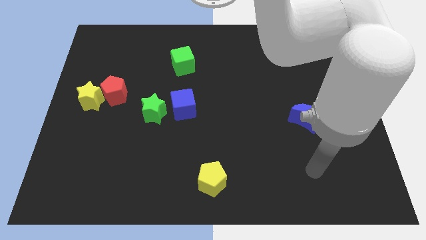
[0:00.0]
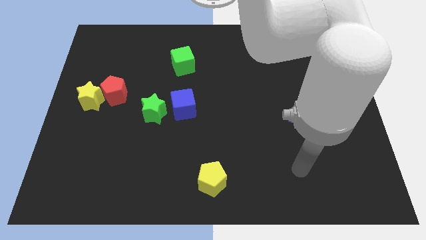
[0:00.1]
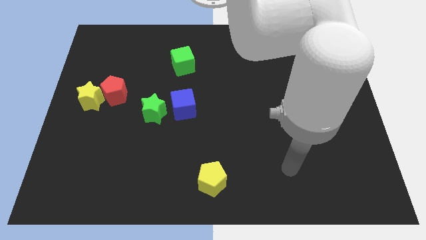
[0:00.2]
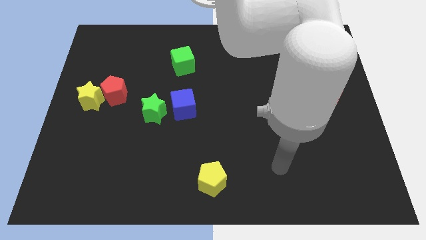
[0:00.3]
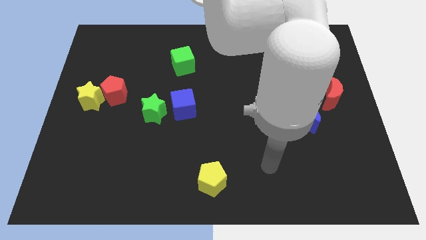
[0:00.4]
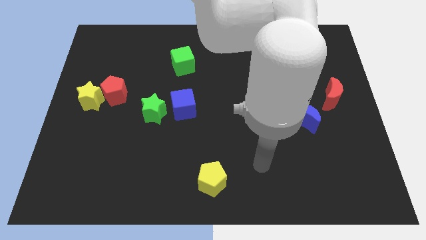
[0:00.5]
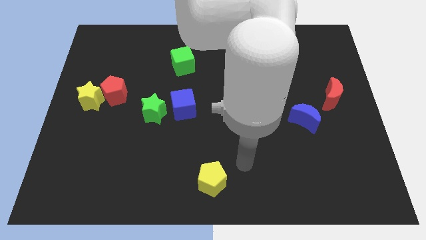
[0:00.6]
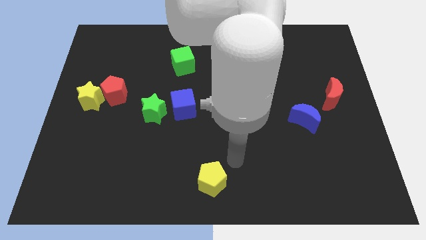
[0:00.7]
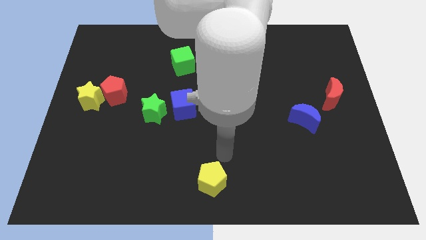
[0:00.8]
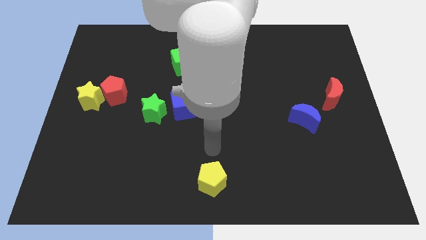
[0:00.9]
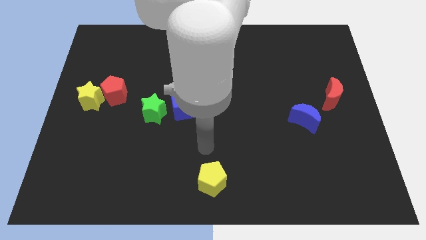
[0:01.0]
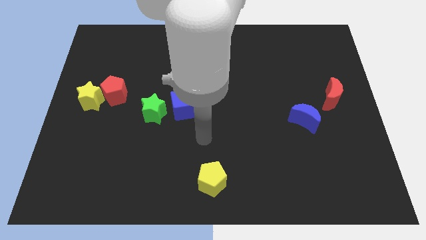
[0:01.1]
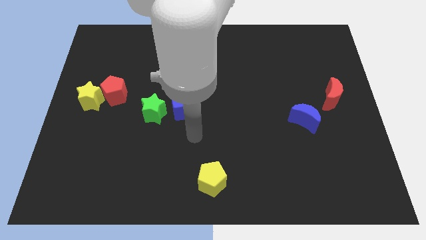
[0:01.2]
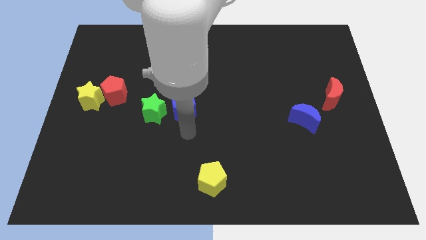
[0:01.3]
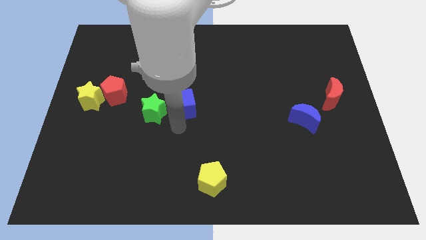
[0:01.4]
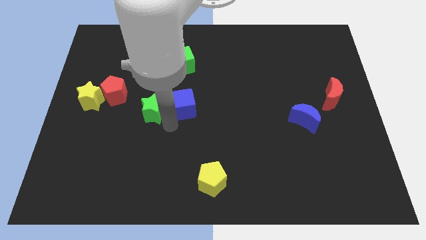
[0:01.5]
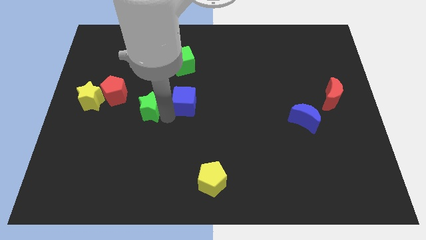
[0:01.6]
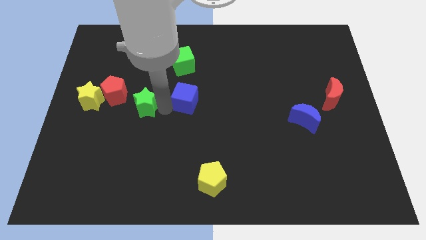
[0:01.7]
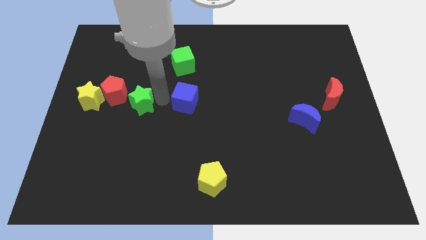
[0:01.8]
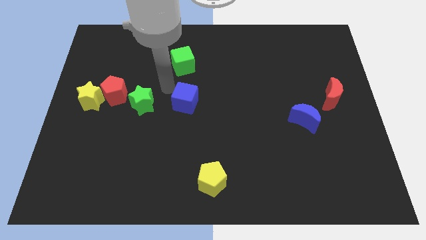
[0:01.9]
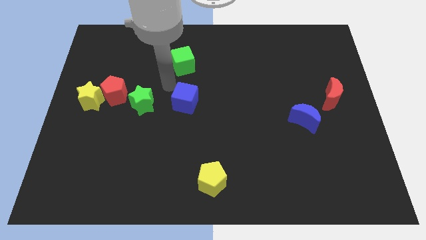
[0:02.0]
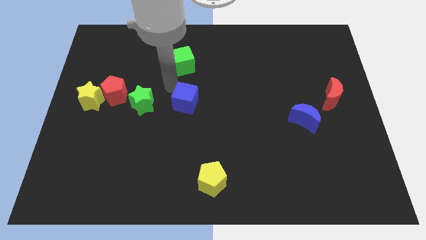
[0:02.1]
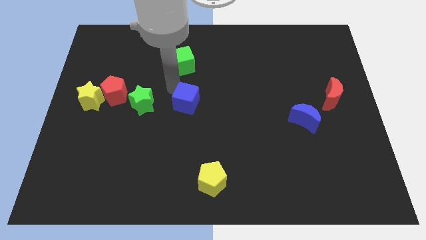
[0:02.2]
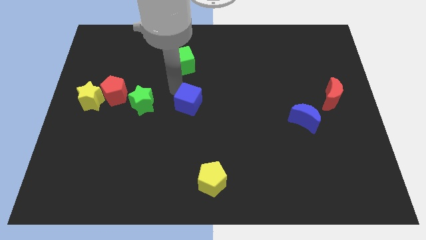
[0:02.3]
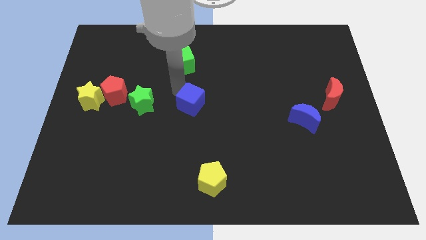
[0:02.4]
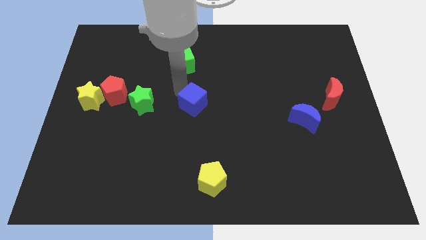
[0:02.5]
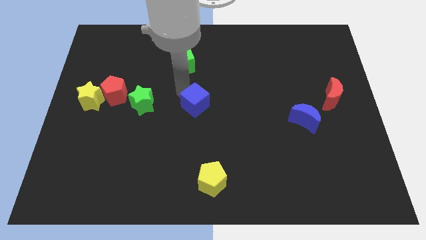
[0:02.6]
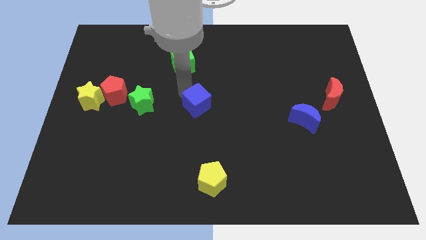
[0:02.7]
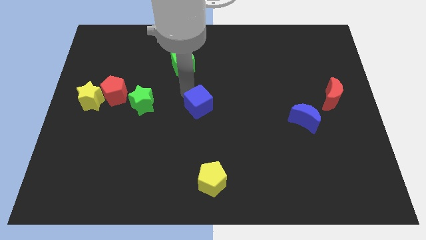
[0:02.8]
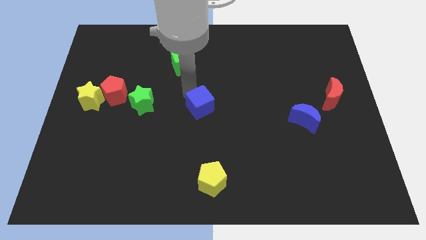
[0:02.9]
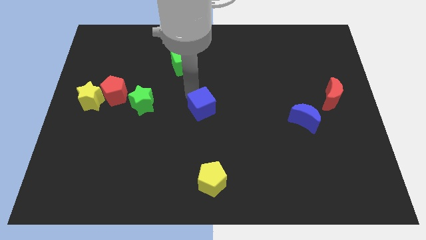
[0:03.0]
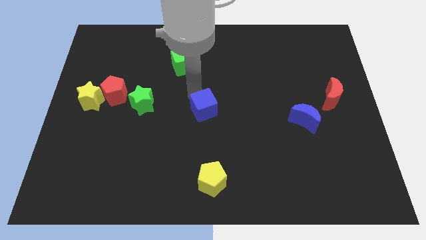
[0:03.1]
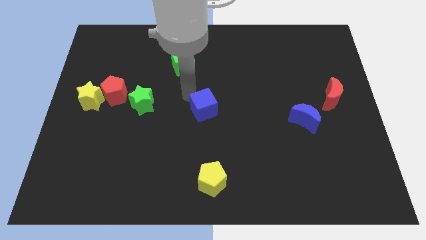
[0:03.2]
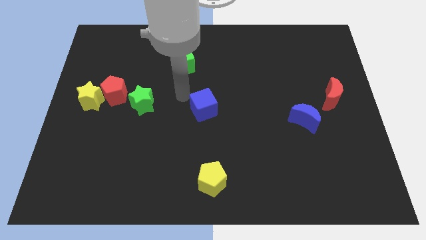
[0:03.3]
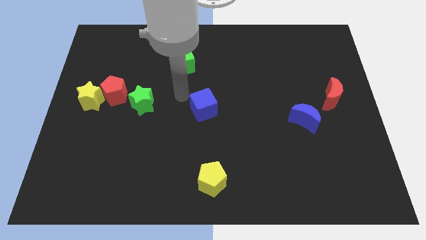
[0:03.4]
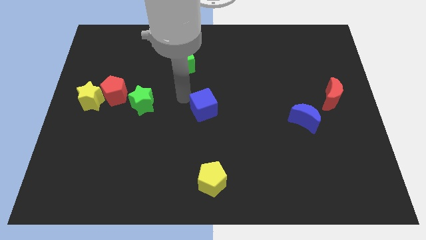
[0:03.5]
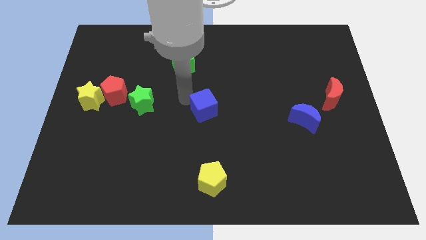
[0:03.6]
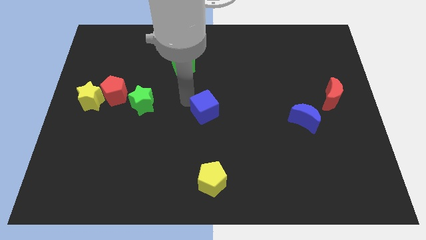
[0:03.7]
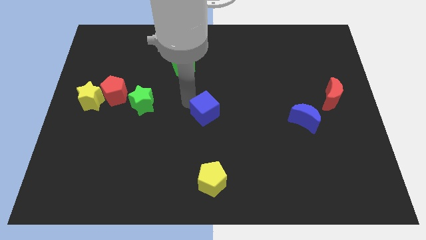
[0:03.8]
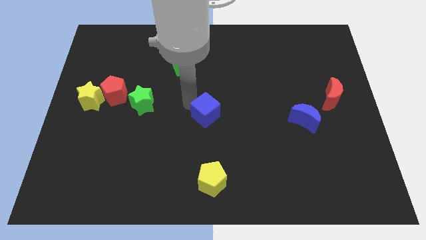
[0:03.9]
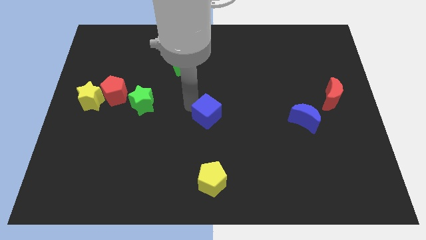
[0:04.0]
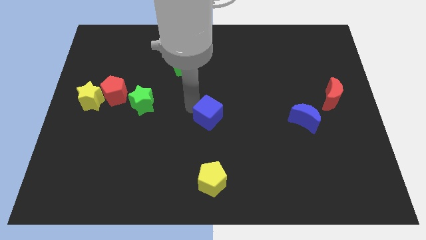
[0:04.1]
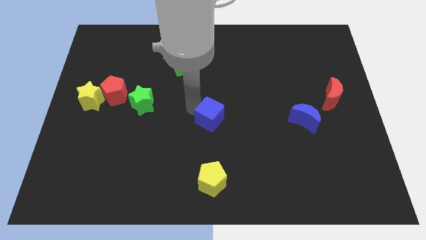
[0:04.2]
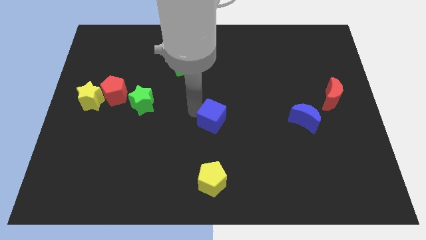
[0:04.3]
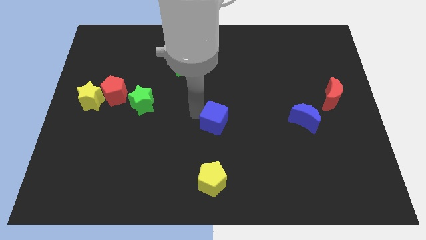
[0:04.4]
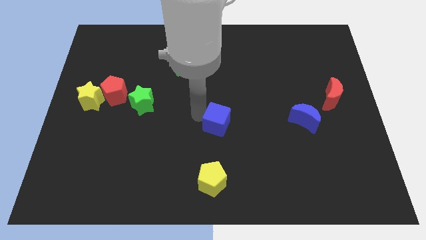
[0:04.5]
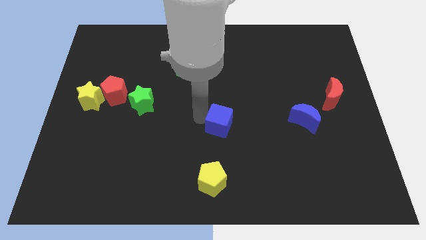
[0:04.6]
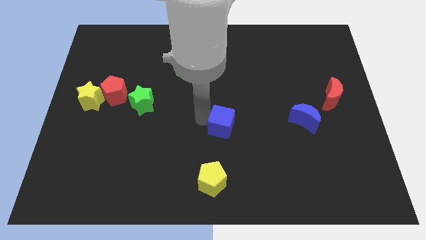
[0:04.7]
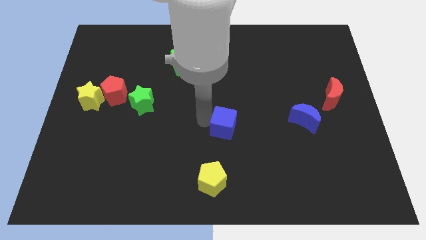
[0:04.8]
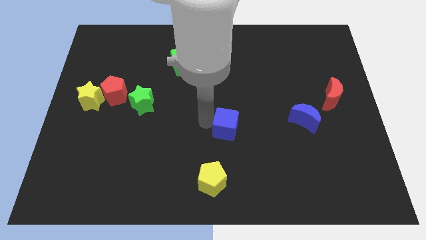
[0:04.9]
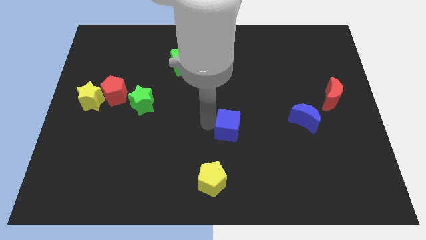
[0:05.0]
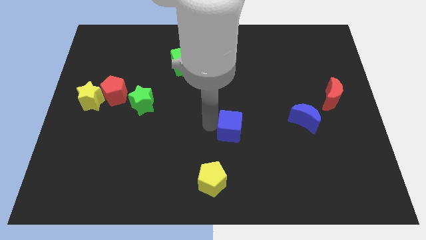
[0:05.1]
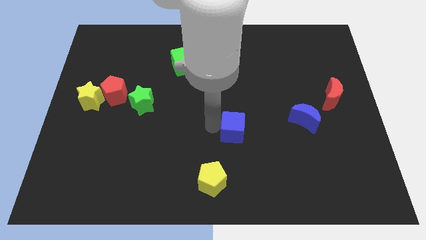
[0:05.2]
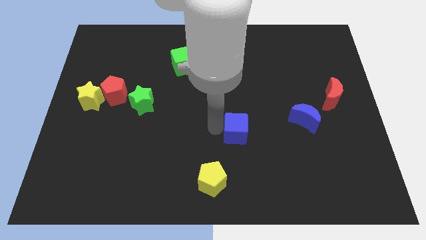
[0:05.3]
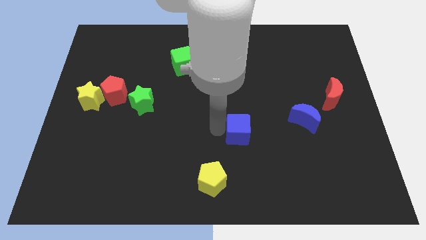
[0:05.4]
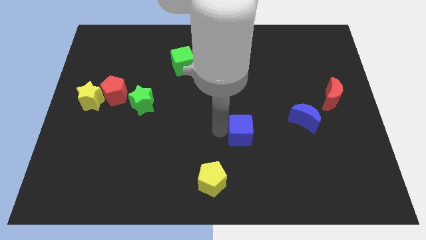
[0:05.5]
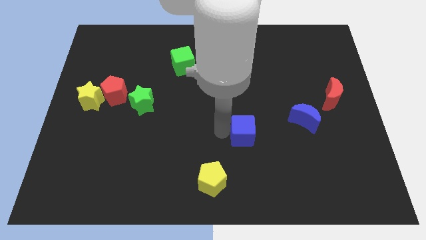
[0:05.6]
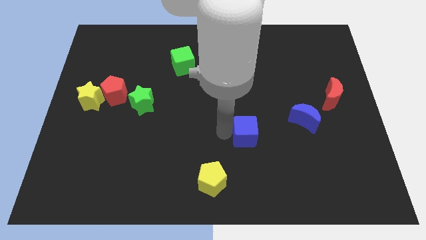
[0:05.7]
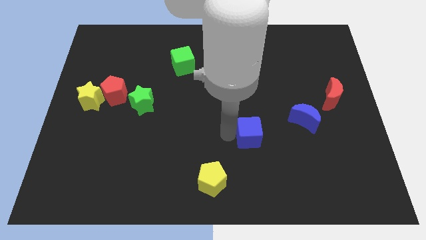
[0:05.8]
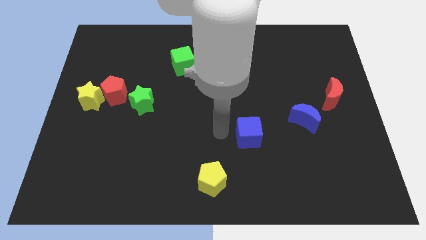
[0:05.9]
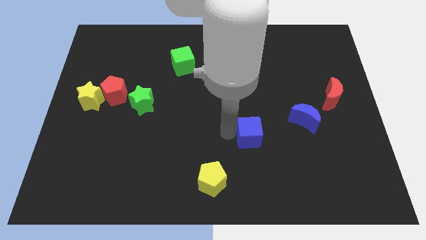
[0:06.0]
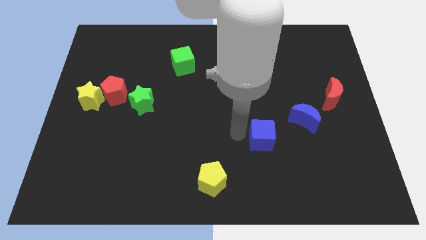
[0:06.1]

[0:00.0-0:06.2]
move the blue cube diagonally down and to the left of the blue moon
